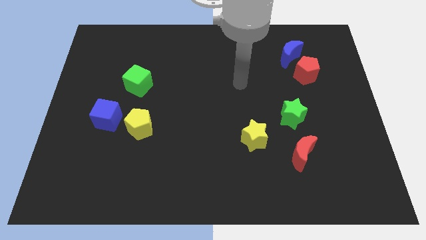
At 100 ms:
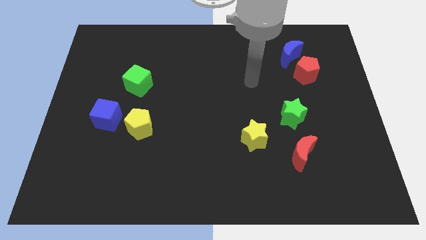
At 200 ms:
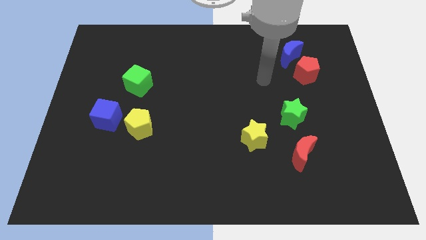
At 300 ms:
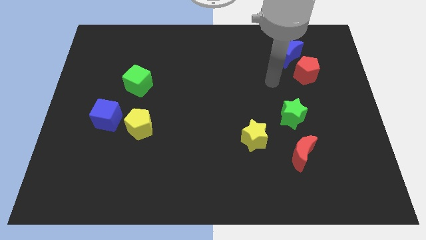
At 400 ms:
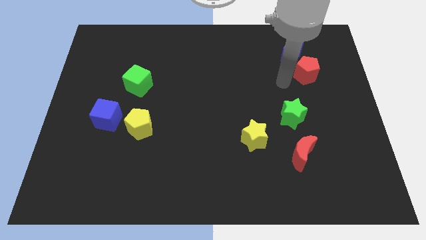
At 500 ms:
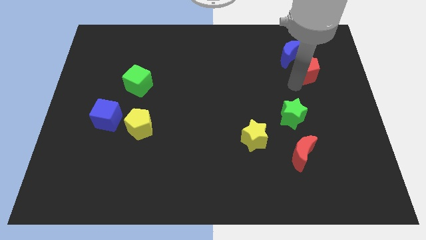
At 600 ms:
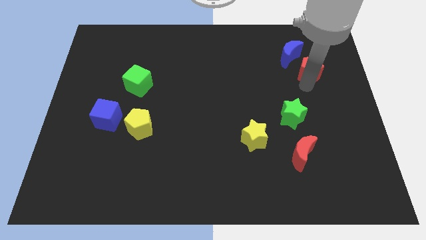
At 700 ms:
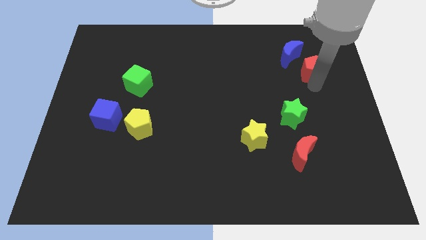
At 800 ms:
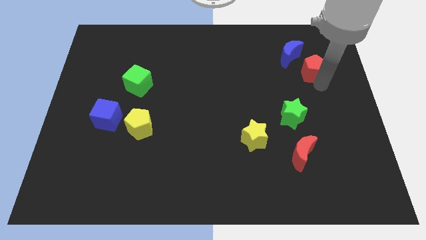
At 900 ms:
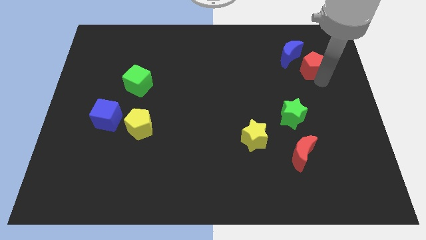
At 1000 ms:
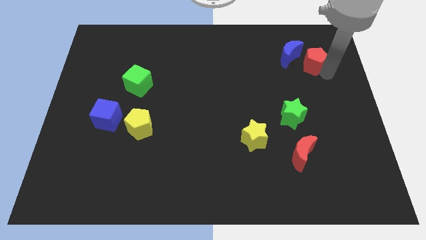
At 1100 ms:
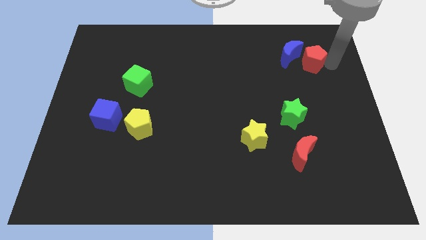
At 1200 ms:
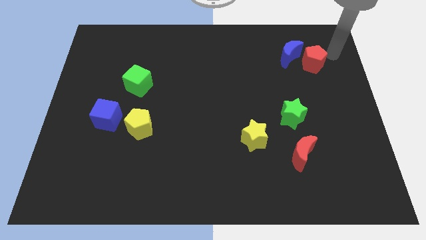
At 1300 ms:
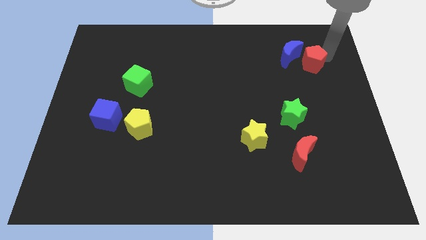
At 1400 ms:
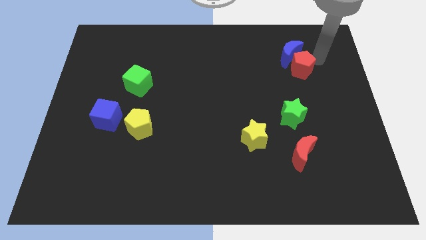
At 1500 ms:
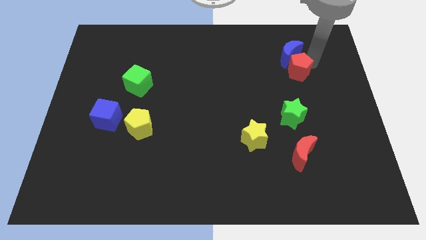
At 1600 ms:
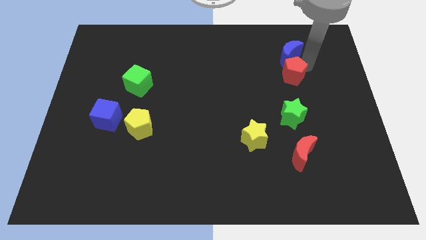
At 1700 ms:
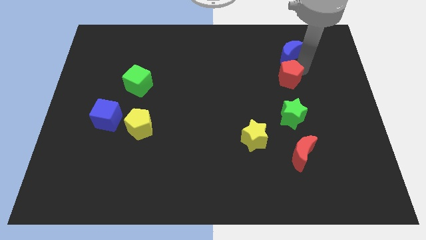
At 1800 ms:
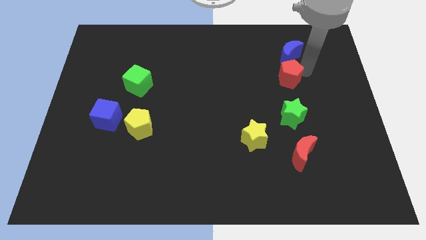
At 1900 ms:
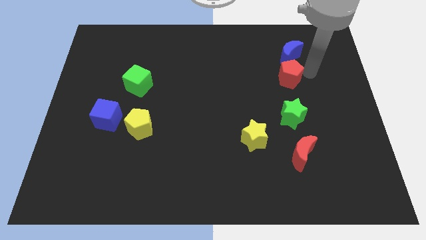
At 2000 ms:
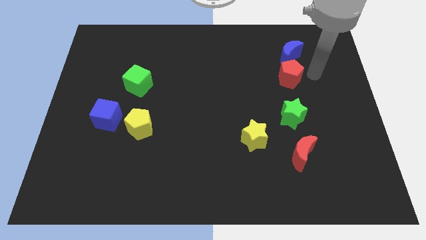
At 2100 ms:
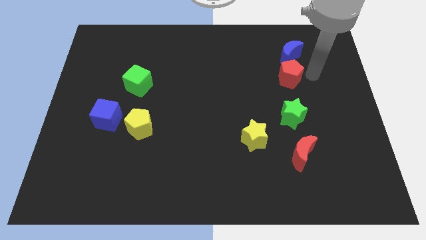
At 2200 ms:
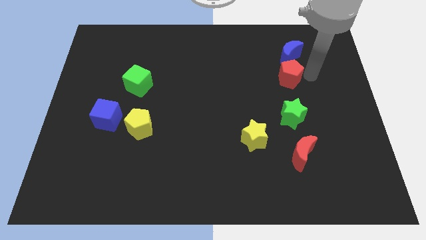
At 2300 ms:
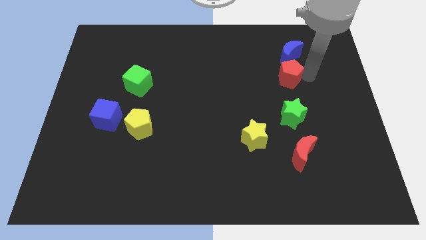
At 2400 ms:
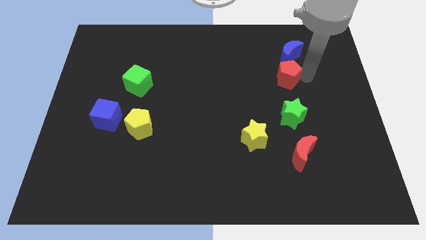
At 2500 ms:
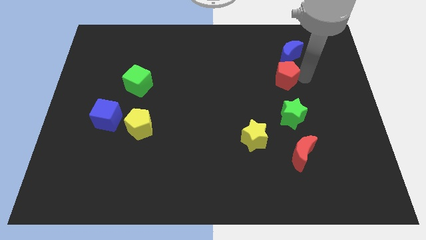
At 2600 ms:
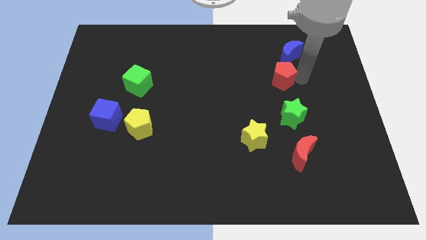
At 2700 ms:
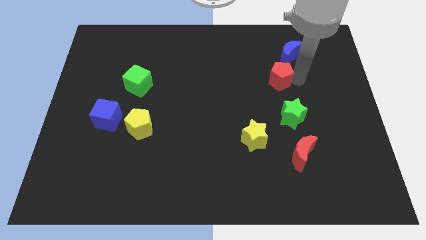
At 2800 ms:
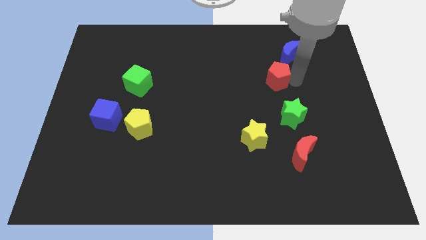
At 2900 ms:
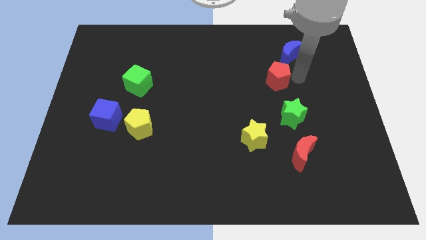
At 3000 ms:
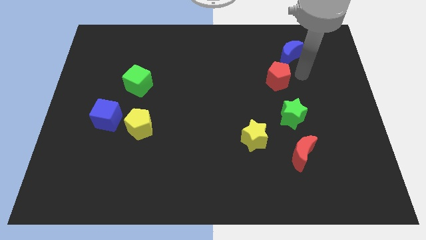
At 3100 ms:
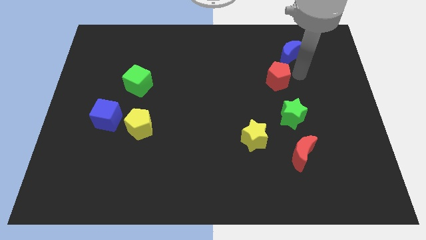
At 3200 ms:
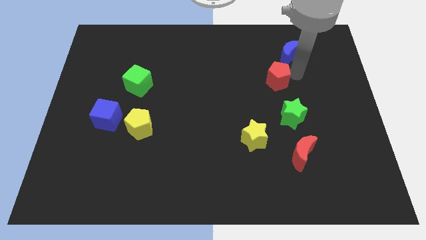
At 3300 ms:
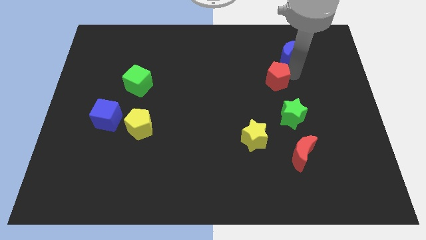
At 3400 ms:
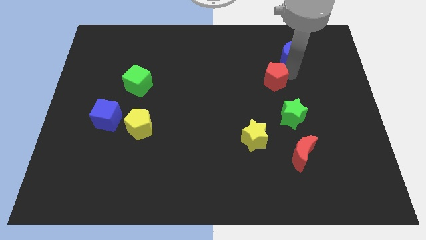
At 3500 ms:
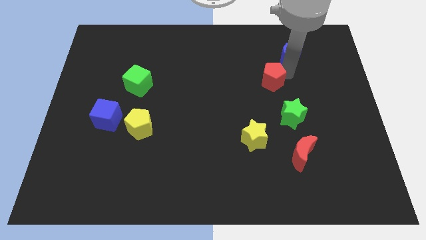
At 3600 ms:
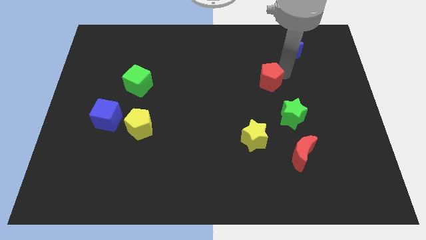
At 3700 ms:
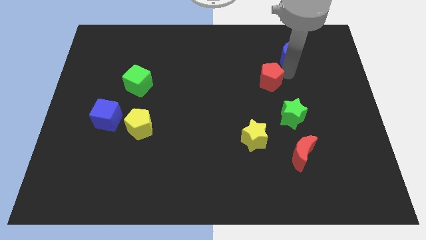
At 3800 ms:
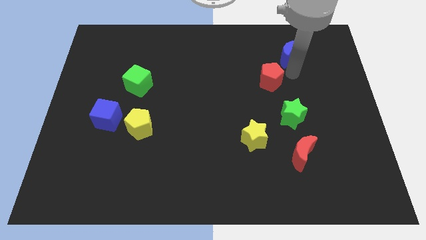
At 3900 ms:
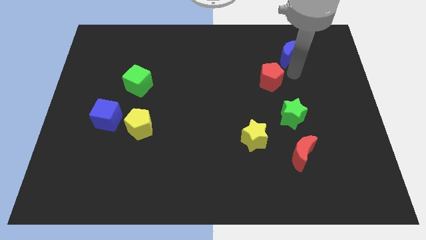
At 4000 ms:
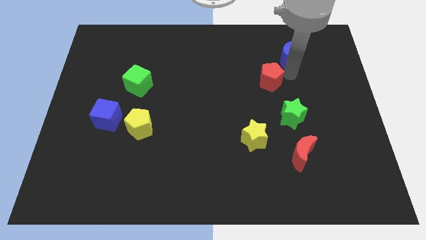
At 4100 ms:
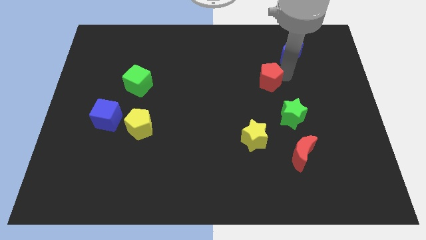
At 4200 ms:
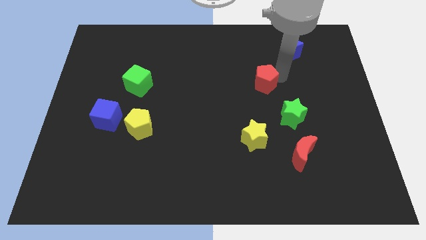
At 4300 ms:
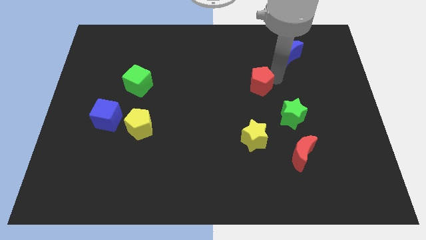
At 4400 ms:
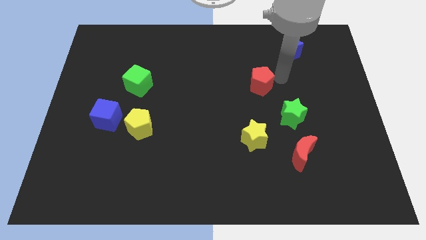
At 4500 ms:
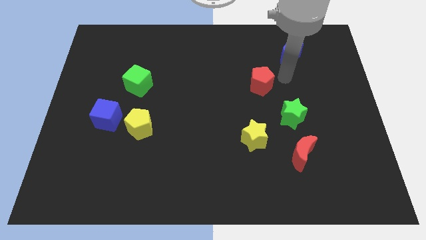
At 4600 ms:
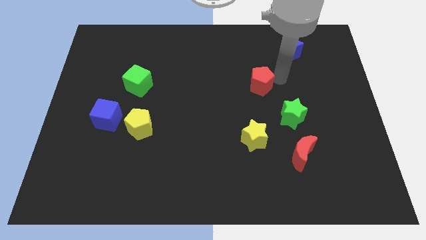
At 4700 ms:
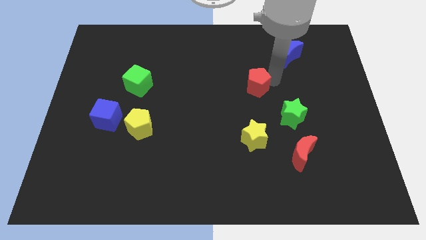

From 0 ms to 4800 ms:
move the red pentagon to the middle

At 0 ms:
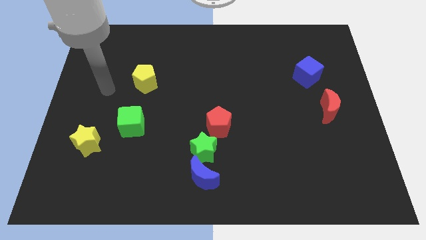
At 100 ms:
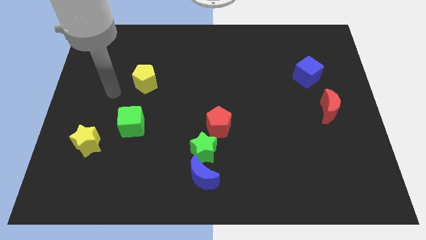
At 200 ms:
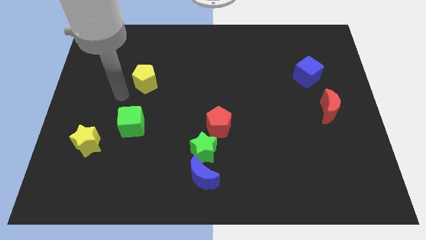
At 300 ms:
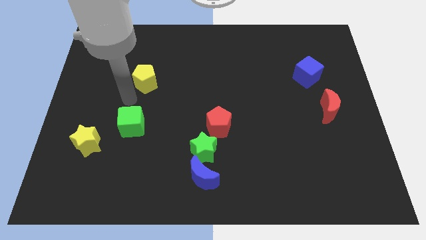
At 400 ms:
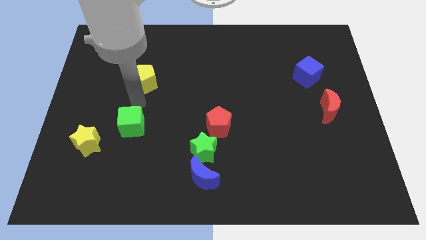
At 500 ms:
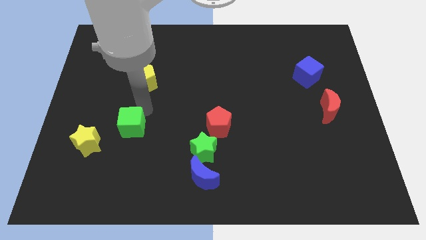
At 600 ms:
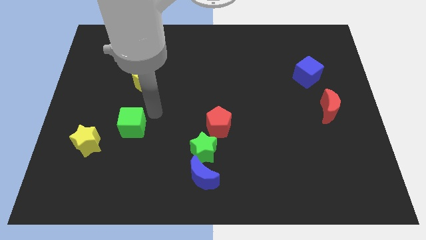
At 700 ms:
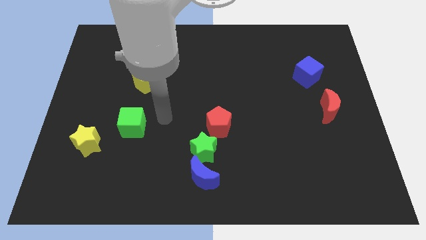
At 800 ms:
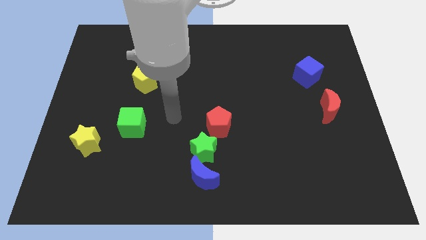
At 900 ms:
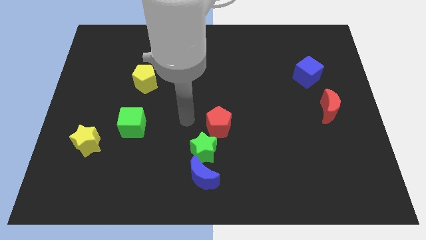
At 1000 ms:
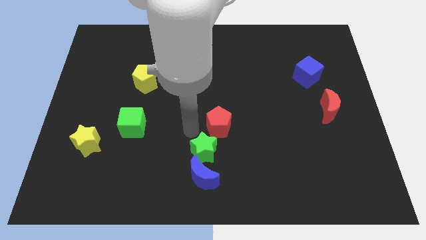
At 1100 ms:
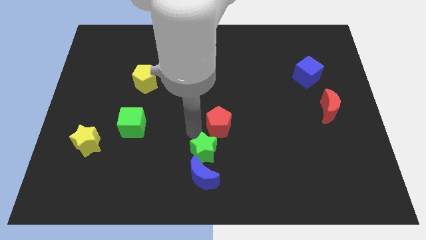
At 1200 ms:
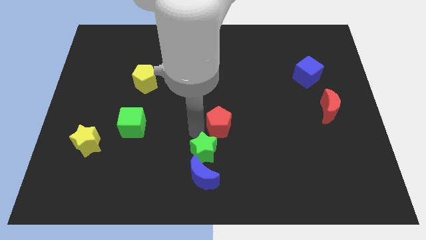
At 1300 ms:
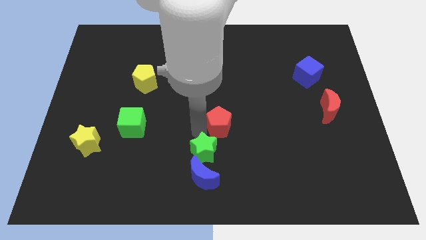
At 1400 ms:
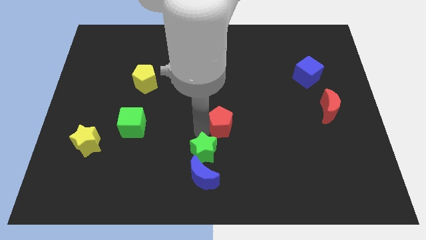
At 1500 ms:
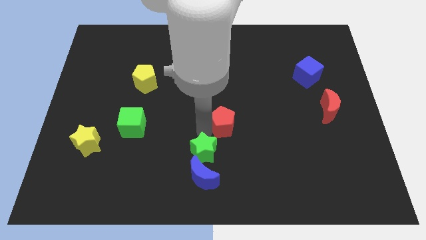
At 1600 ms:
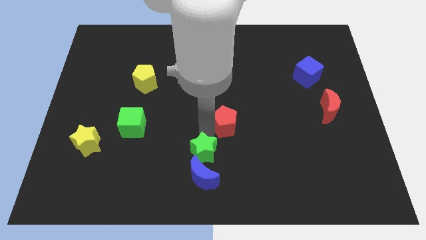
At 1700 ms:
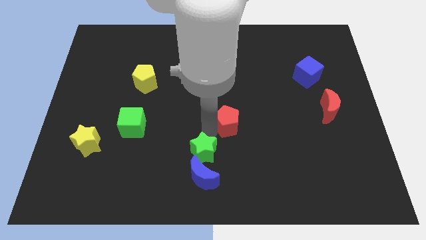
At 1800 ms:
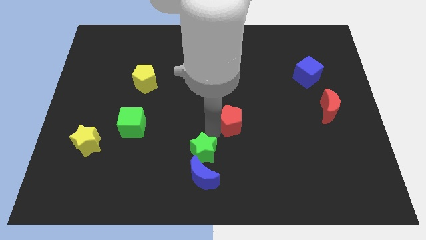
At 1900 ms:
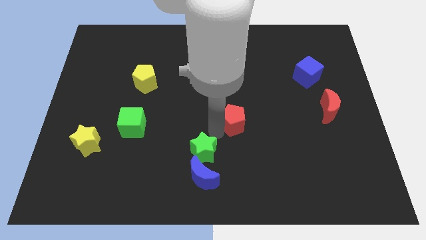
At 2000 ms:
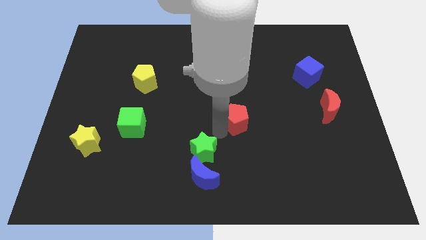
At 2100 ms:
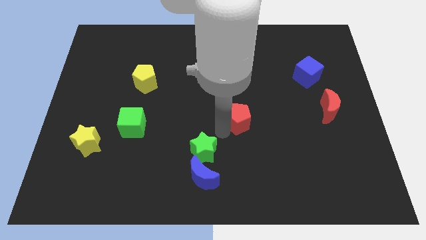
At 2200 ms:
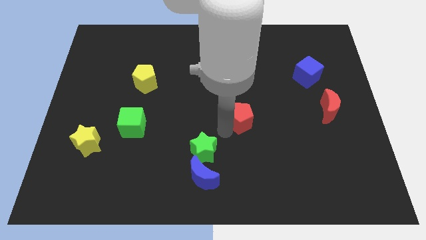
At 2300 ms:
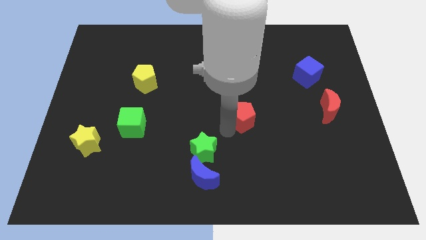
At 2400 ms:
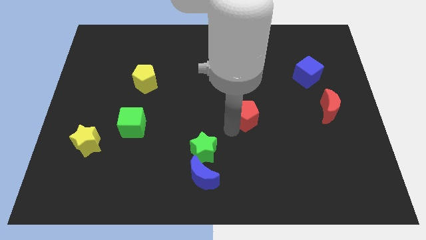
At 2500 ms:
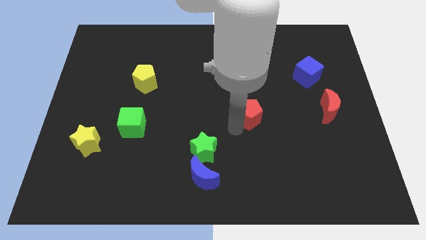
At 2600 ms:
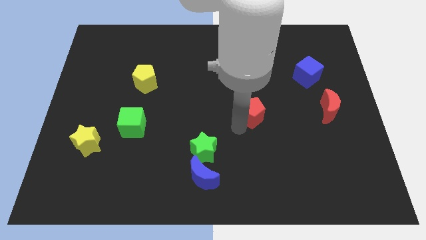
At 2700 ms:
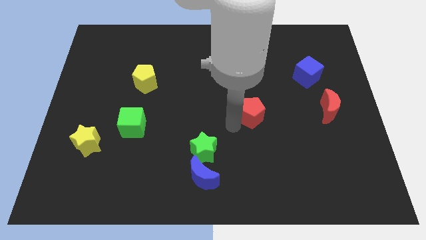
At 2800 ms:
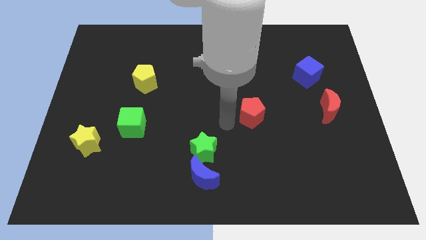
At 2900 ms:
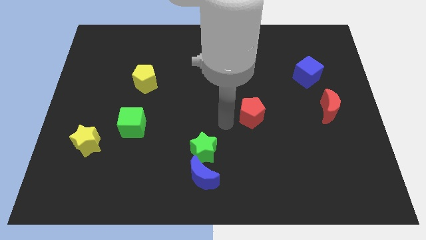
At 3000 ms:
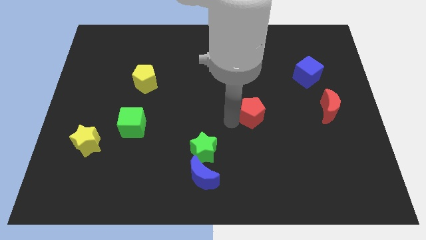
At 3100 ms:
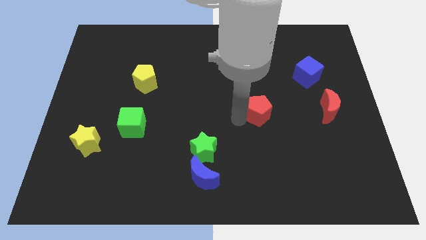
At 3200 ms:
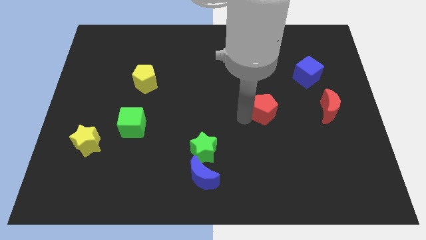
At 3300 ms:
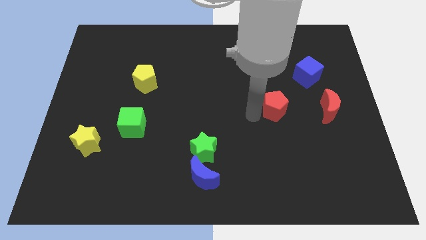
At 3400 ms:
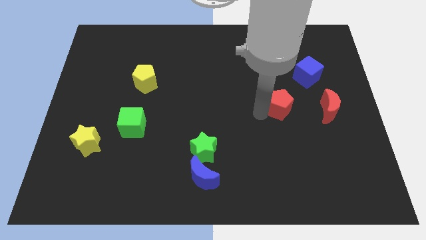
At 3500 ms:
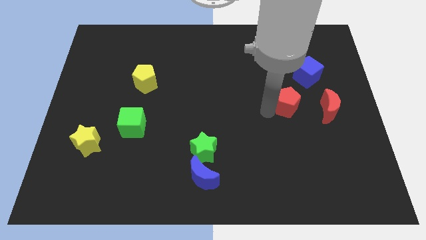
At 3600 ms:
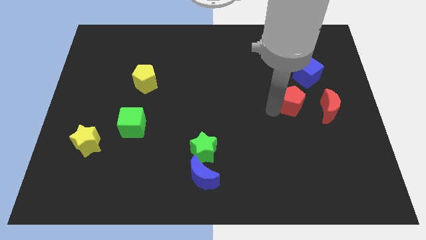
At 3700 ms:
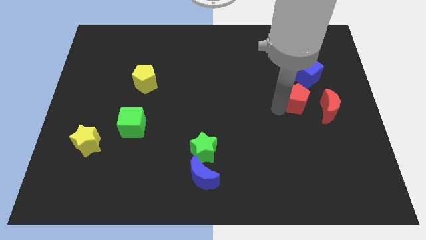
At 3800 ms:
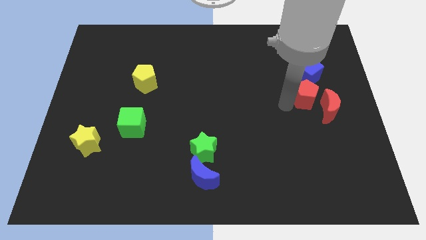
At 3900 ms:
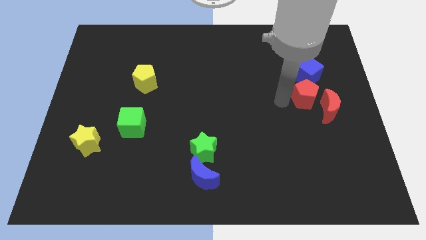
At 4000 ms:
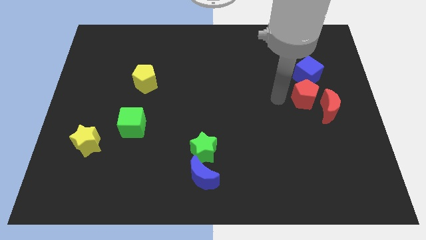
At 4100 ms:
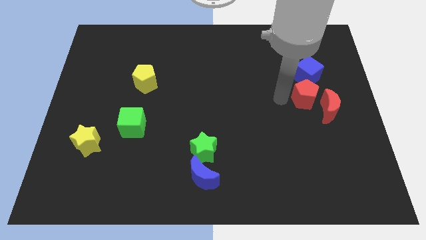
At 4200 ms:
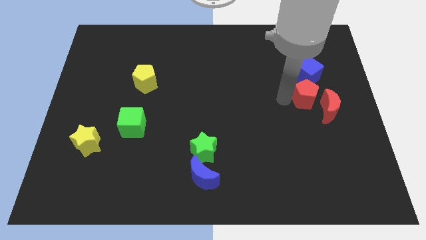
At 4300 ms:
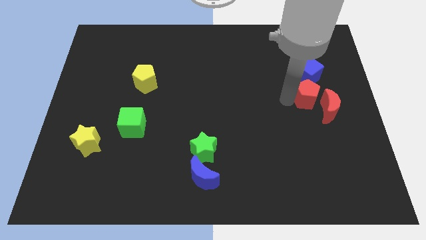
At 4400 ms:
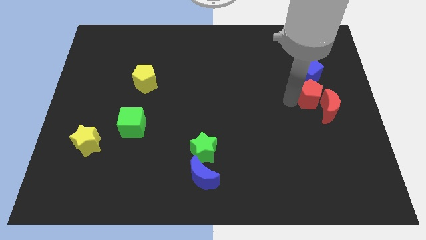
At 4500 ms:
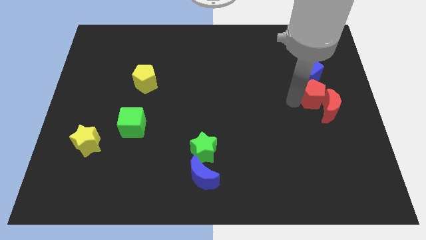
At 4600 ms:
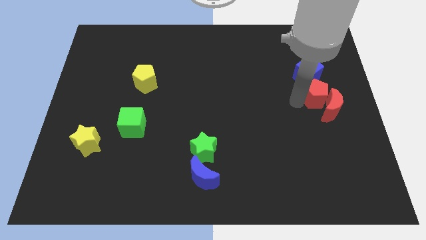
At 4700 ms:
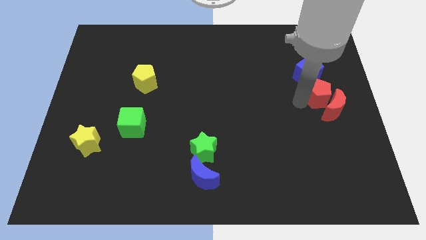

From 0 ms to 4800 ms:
push the red pentagon to the center right
